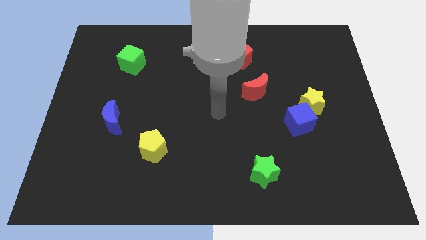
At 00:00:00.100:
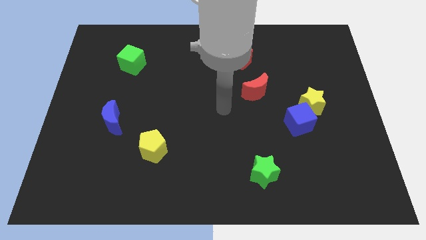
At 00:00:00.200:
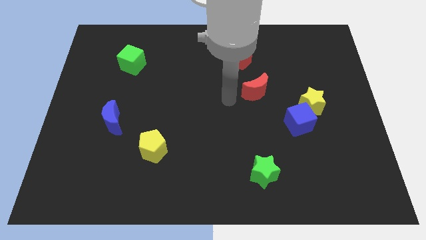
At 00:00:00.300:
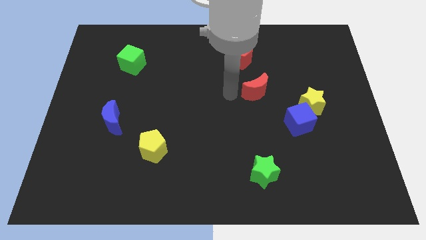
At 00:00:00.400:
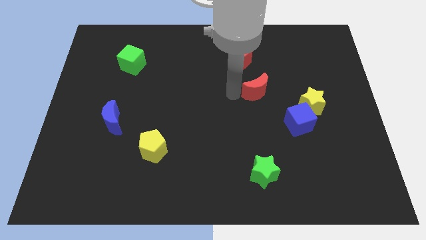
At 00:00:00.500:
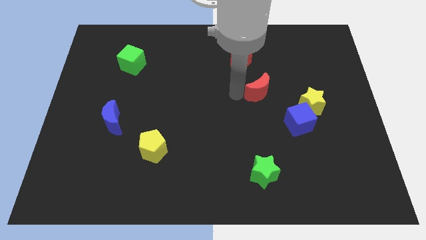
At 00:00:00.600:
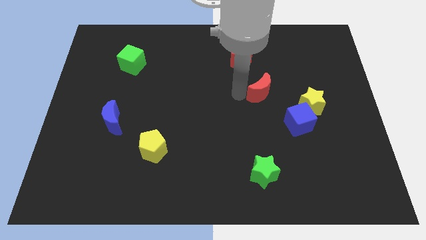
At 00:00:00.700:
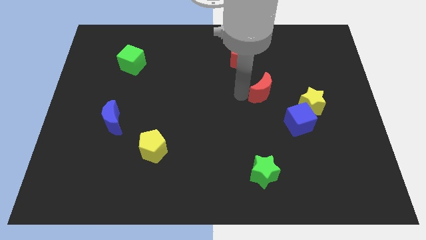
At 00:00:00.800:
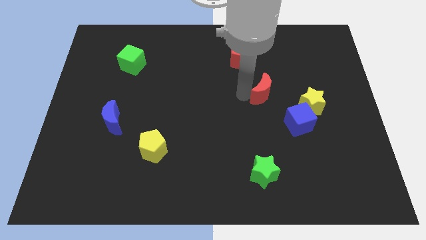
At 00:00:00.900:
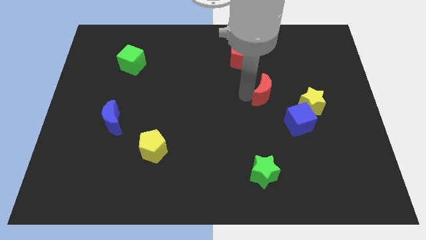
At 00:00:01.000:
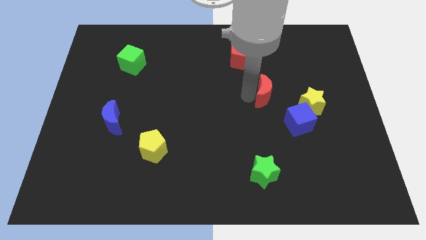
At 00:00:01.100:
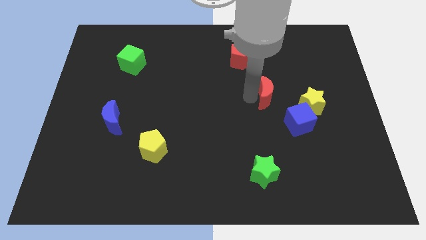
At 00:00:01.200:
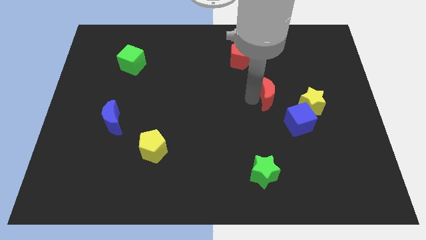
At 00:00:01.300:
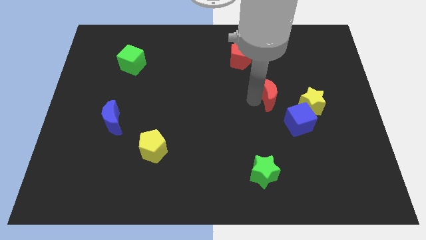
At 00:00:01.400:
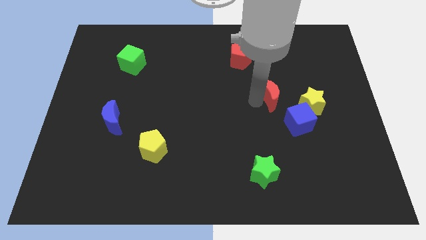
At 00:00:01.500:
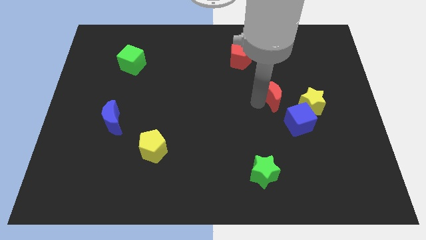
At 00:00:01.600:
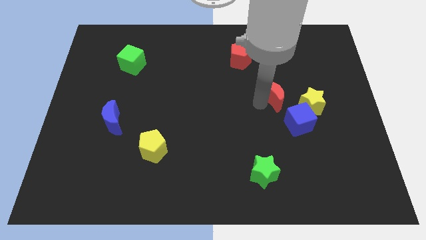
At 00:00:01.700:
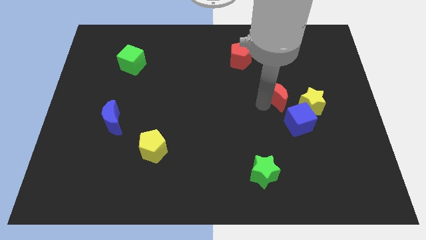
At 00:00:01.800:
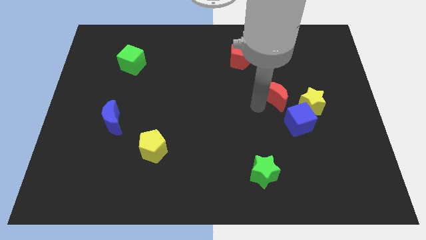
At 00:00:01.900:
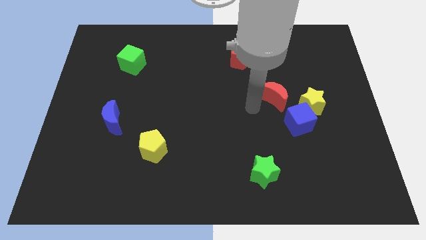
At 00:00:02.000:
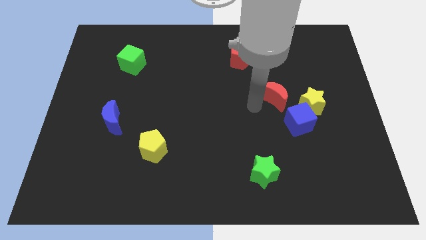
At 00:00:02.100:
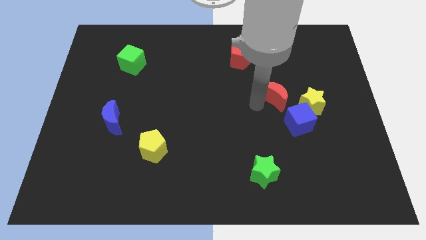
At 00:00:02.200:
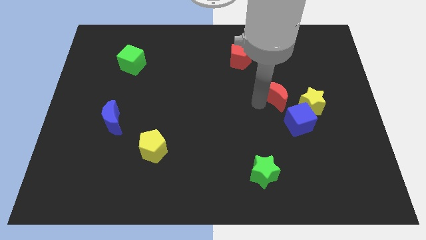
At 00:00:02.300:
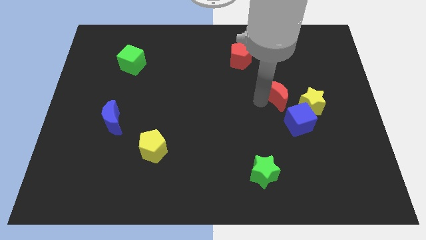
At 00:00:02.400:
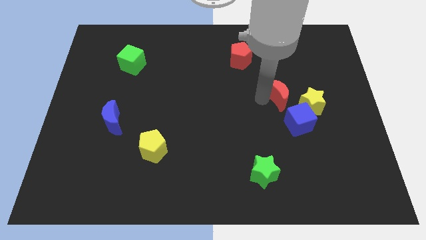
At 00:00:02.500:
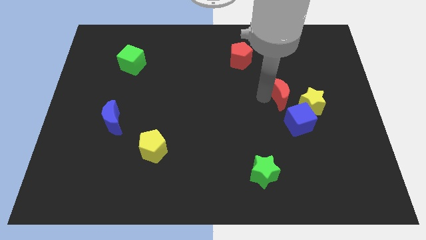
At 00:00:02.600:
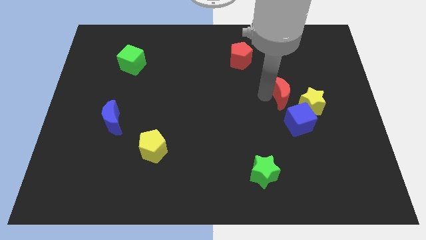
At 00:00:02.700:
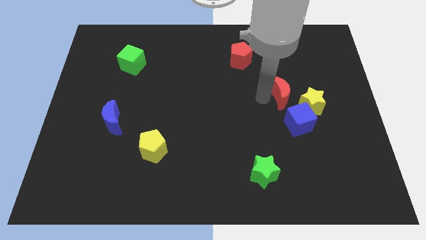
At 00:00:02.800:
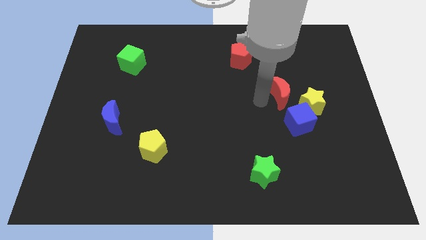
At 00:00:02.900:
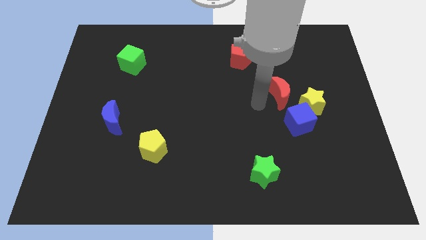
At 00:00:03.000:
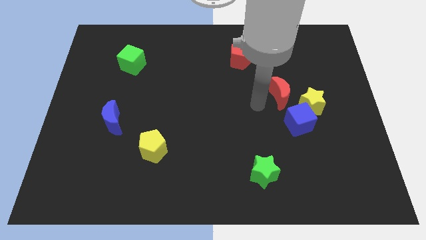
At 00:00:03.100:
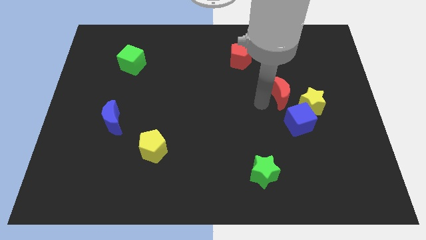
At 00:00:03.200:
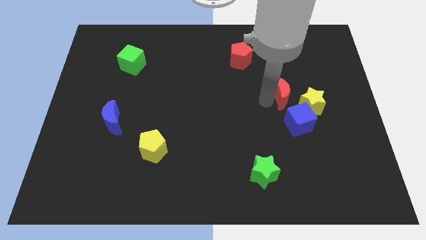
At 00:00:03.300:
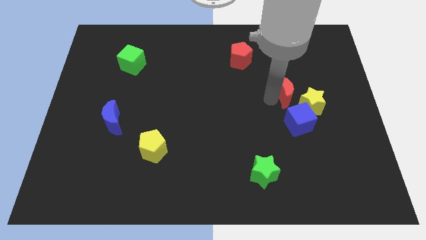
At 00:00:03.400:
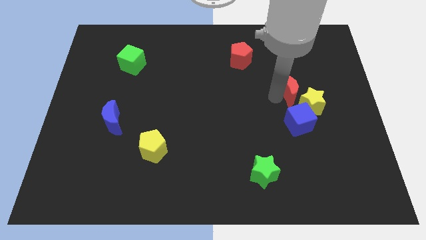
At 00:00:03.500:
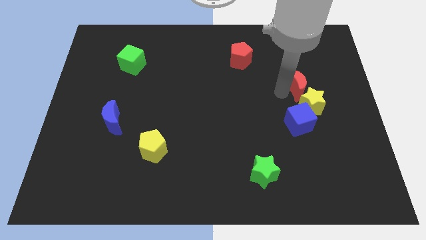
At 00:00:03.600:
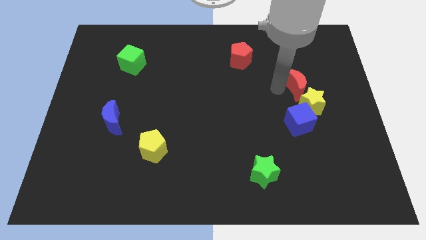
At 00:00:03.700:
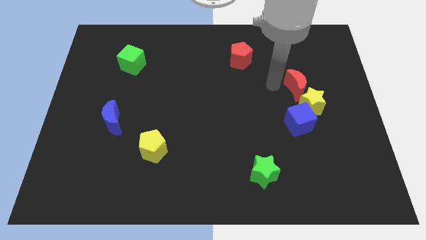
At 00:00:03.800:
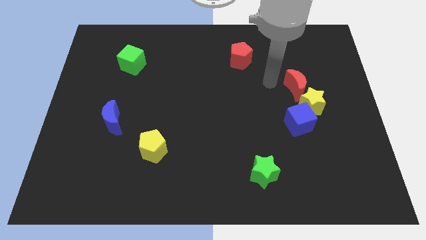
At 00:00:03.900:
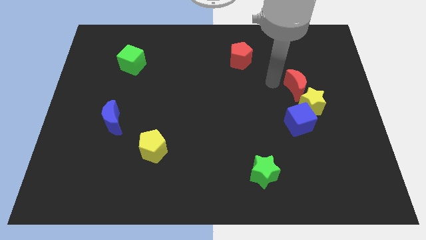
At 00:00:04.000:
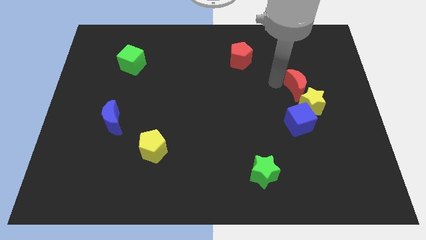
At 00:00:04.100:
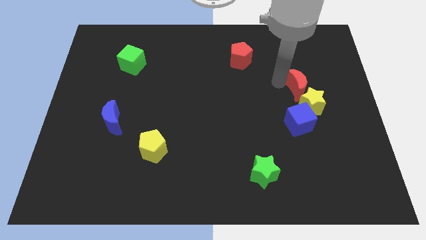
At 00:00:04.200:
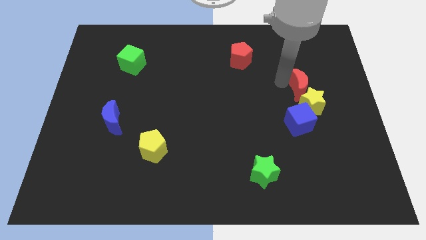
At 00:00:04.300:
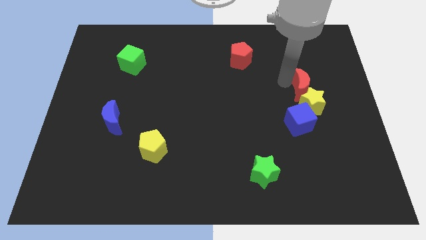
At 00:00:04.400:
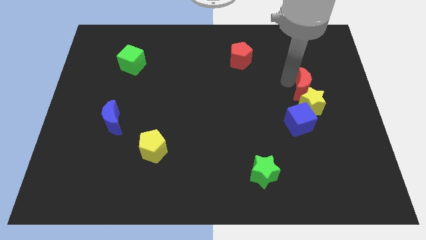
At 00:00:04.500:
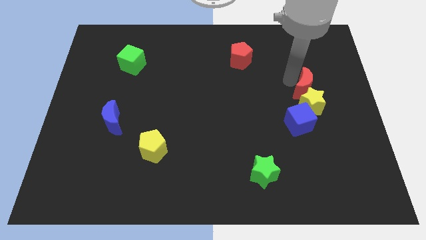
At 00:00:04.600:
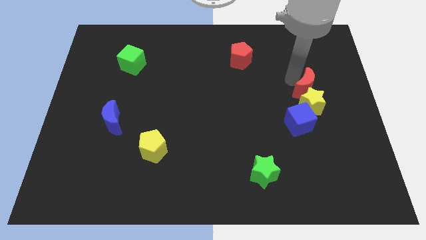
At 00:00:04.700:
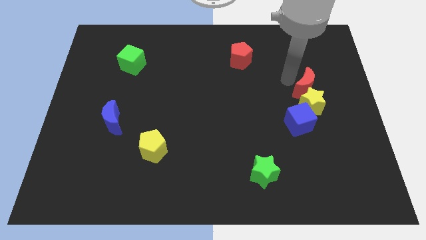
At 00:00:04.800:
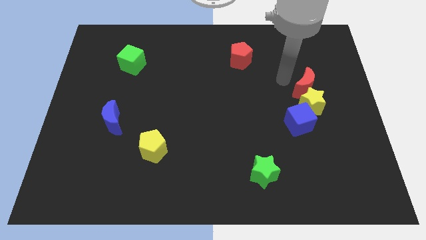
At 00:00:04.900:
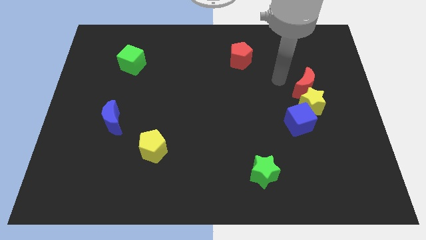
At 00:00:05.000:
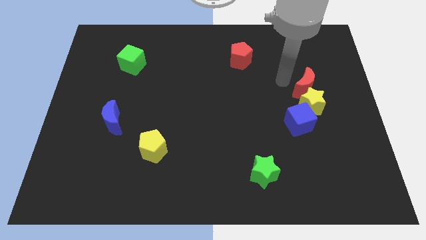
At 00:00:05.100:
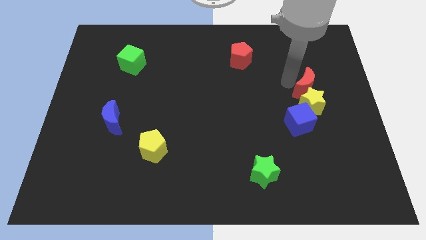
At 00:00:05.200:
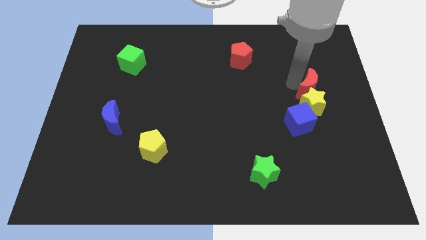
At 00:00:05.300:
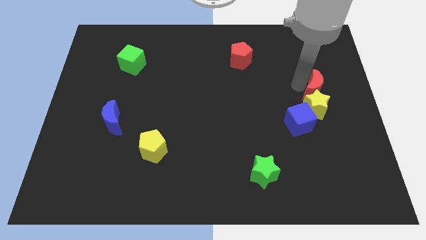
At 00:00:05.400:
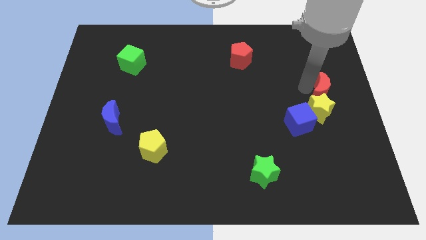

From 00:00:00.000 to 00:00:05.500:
push the red moon to the center right
